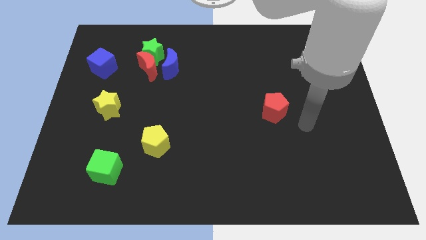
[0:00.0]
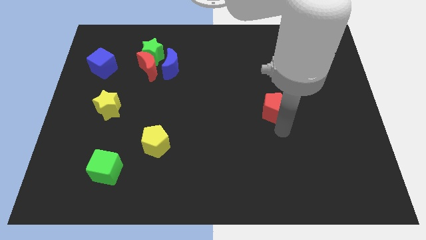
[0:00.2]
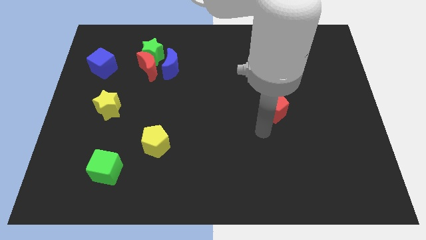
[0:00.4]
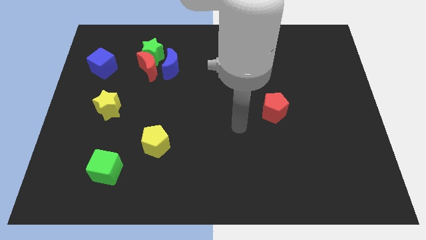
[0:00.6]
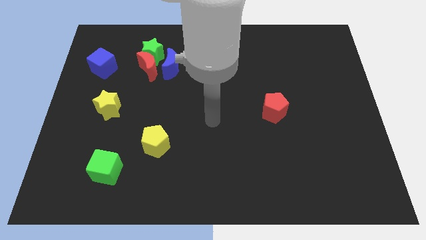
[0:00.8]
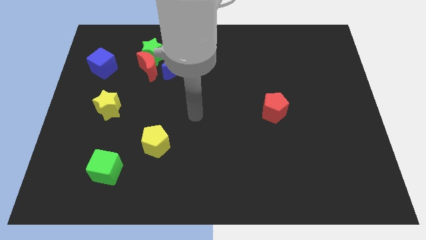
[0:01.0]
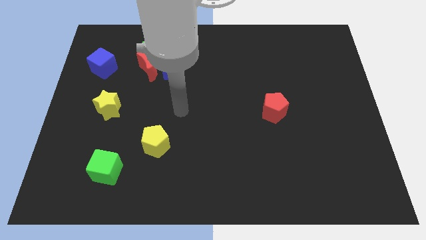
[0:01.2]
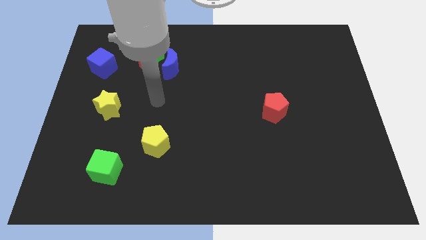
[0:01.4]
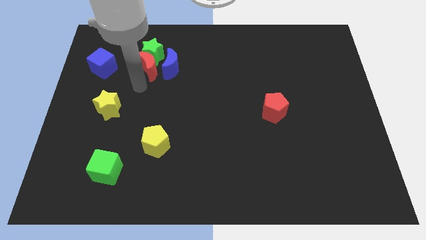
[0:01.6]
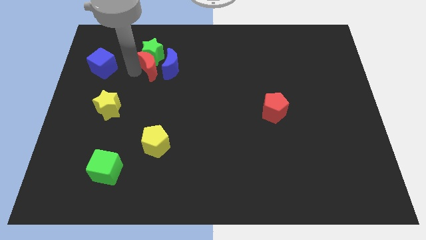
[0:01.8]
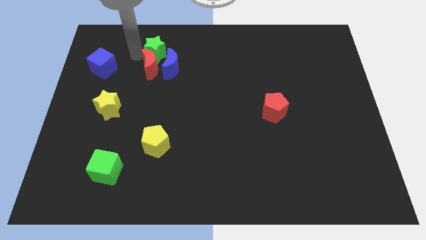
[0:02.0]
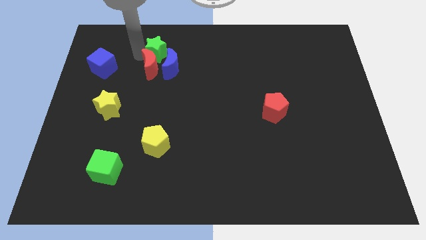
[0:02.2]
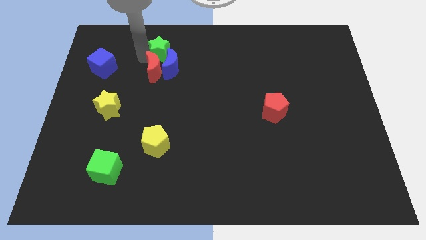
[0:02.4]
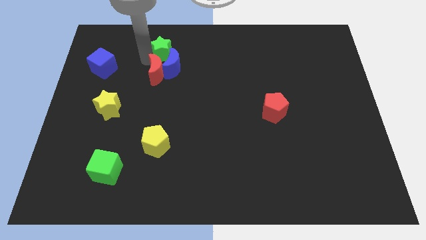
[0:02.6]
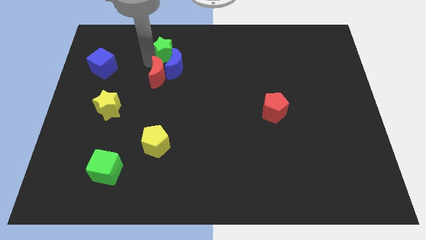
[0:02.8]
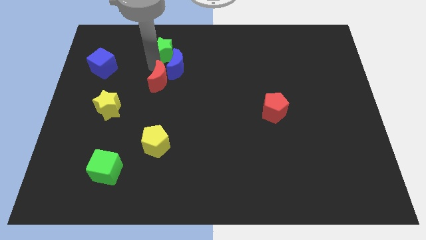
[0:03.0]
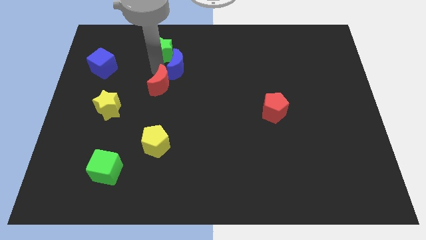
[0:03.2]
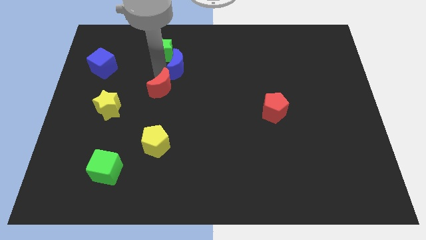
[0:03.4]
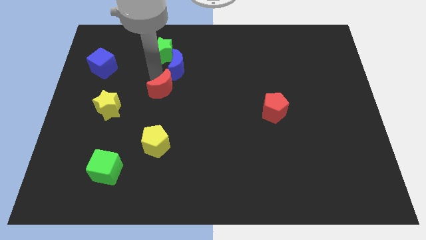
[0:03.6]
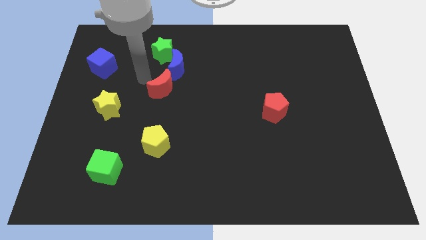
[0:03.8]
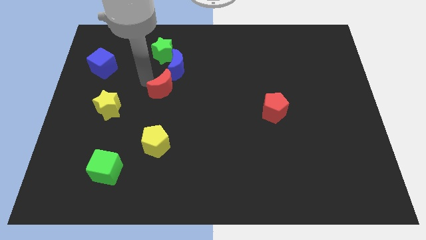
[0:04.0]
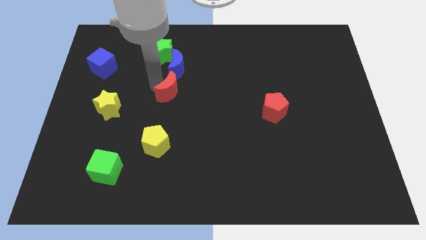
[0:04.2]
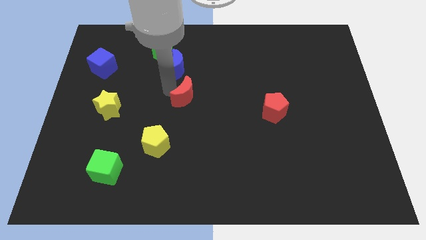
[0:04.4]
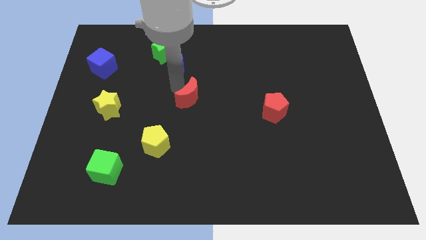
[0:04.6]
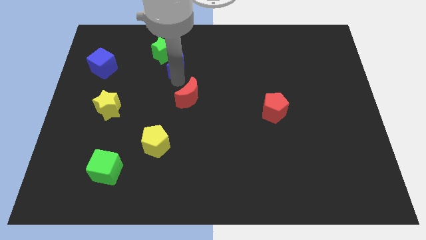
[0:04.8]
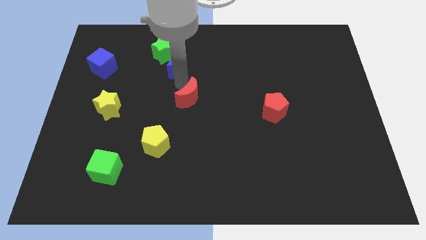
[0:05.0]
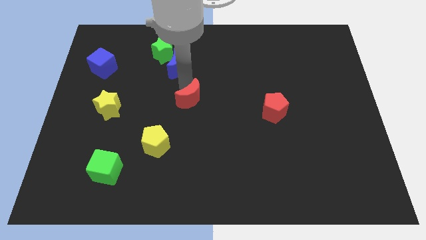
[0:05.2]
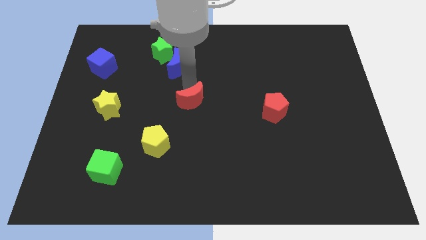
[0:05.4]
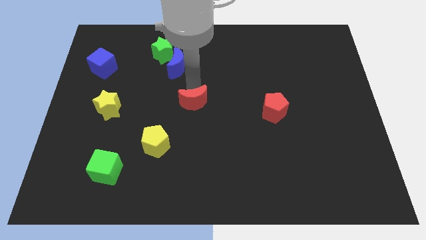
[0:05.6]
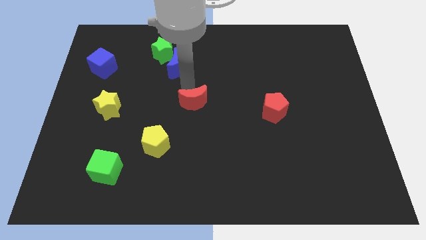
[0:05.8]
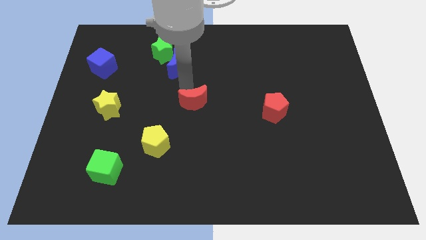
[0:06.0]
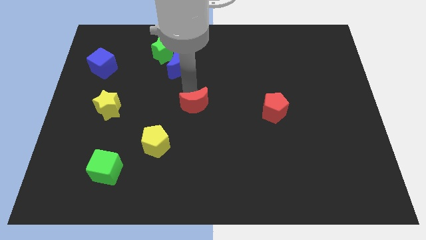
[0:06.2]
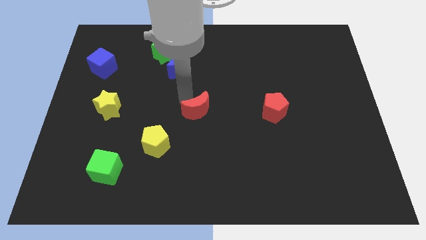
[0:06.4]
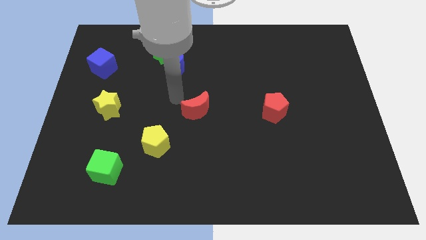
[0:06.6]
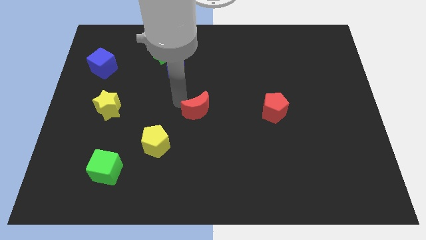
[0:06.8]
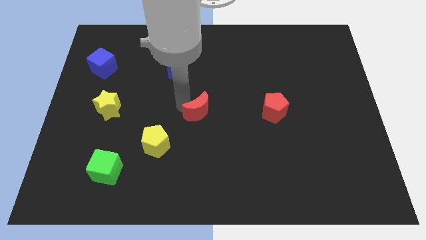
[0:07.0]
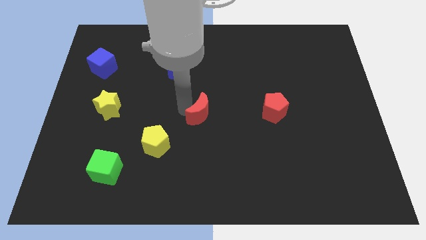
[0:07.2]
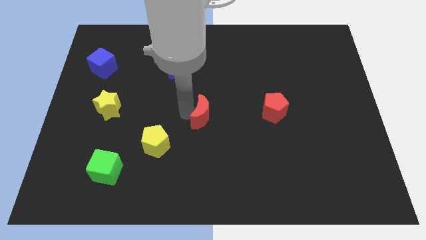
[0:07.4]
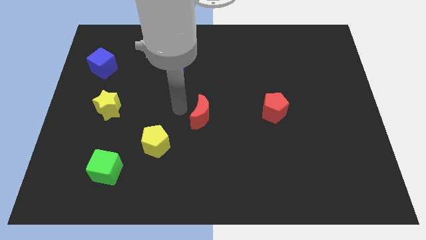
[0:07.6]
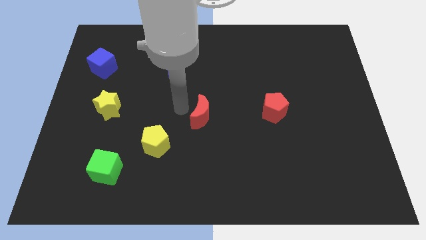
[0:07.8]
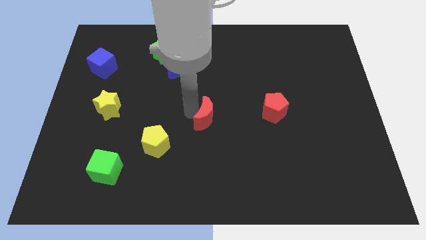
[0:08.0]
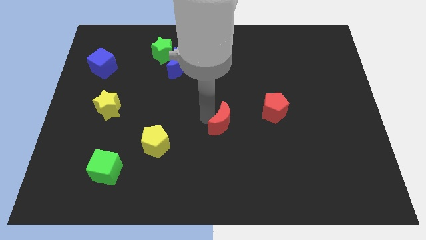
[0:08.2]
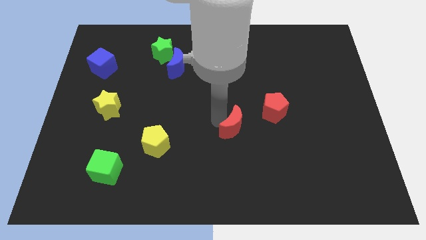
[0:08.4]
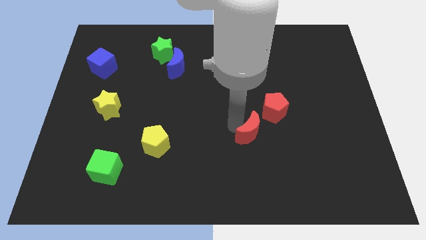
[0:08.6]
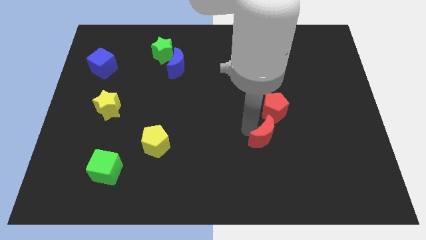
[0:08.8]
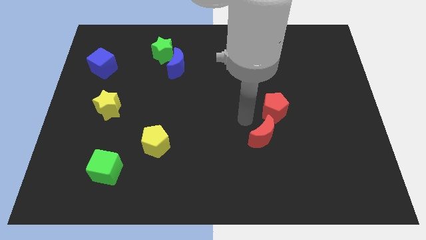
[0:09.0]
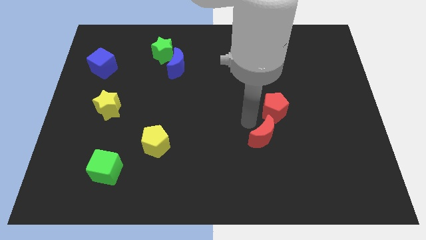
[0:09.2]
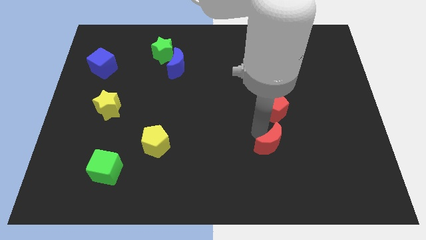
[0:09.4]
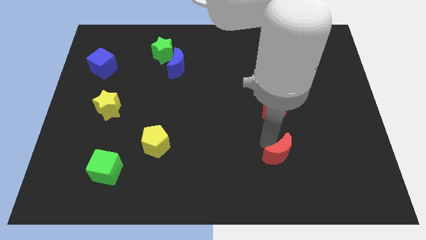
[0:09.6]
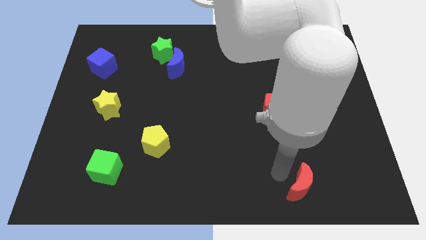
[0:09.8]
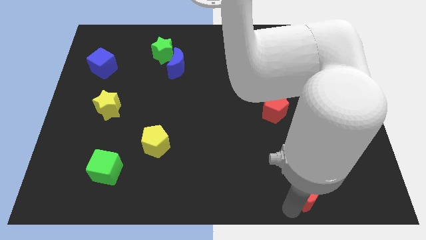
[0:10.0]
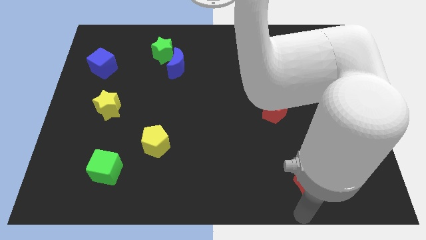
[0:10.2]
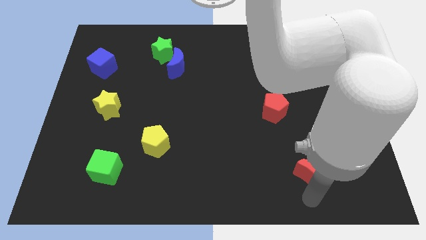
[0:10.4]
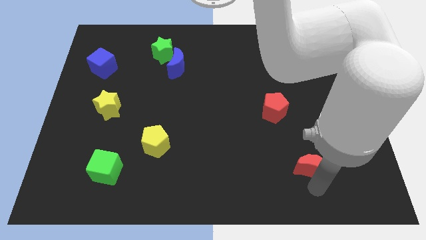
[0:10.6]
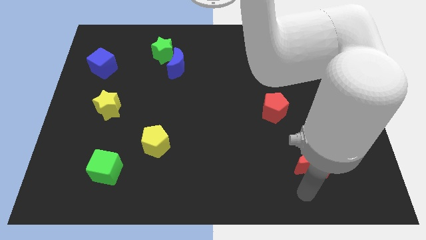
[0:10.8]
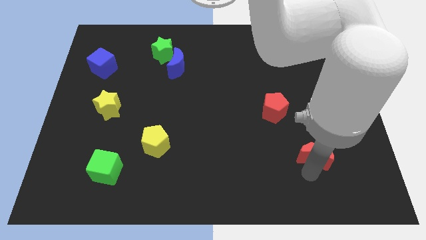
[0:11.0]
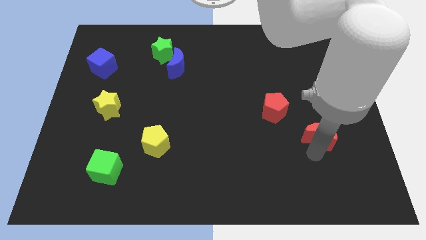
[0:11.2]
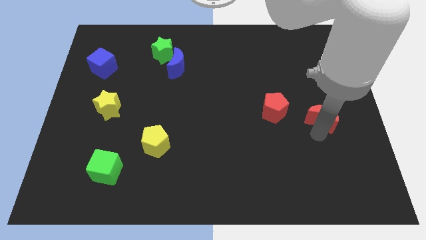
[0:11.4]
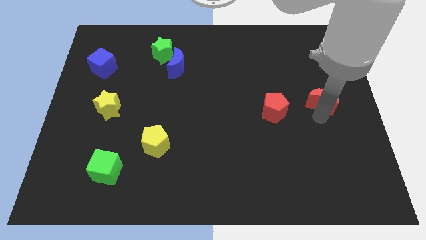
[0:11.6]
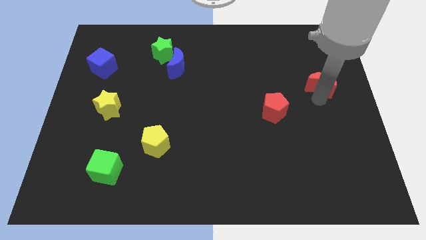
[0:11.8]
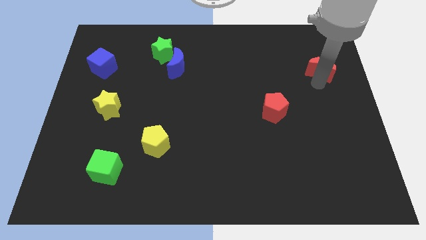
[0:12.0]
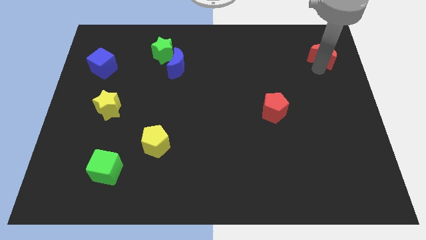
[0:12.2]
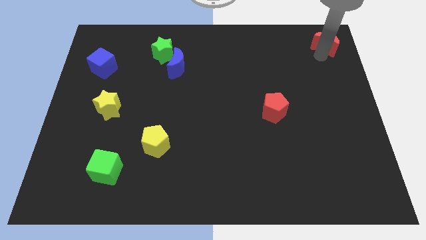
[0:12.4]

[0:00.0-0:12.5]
slide the red moon to the top right of the board

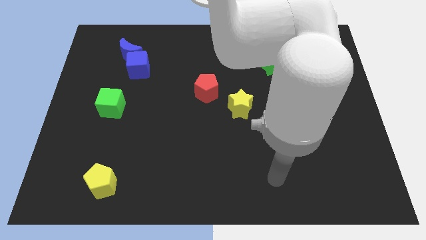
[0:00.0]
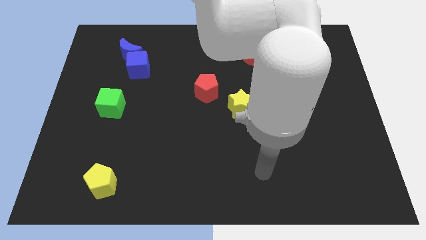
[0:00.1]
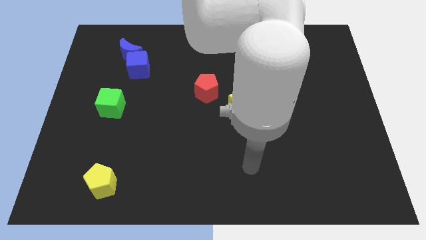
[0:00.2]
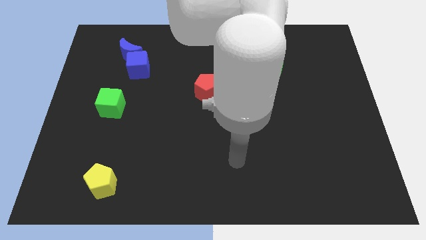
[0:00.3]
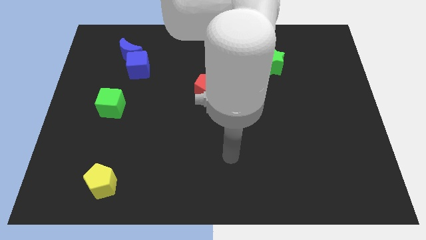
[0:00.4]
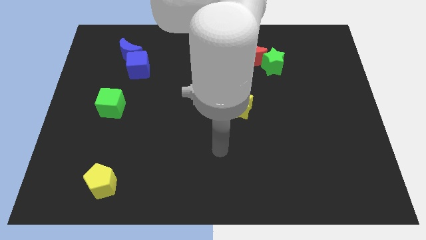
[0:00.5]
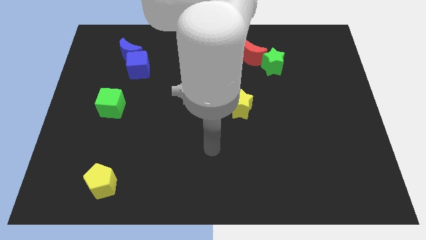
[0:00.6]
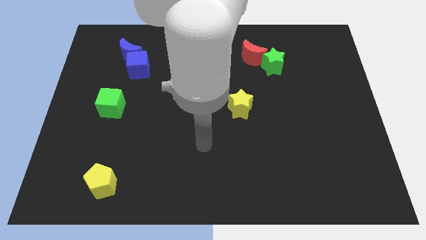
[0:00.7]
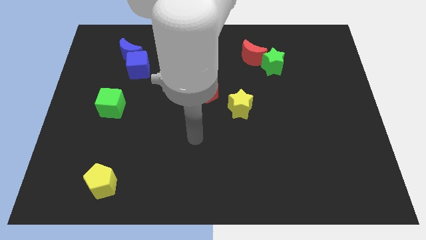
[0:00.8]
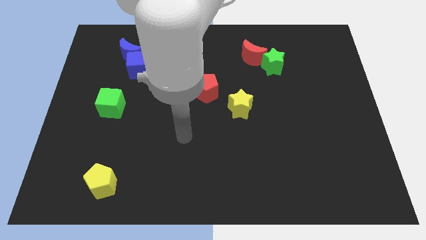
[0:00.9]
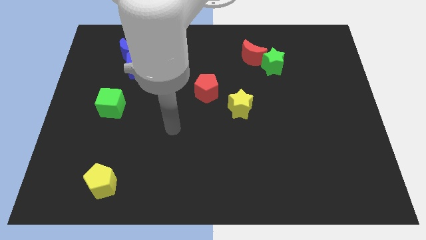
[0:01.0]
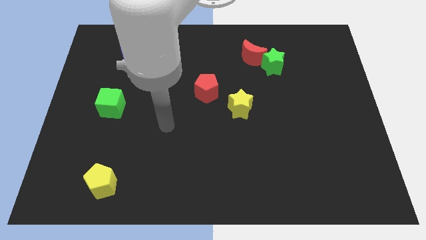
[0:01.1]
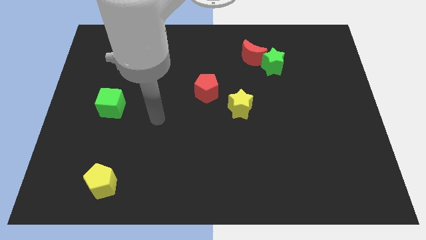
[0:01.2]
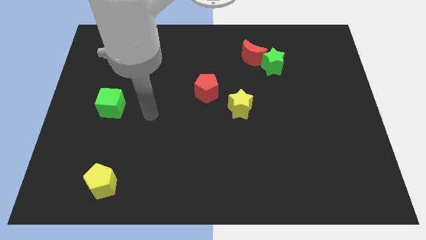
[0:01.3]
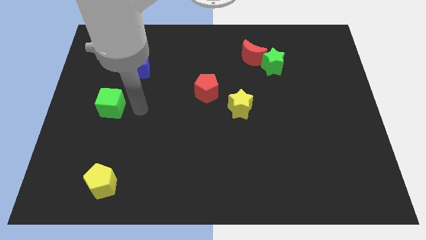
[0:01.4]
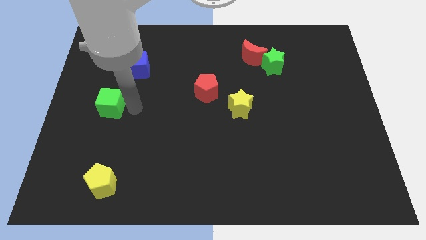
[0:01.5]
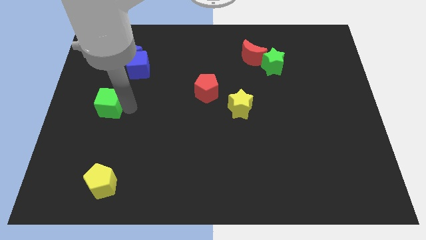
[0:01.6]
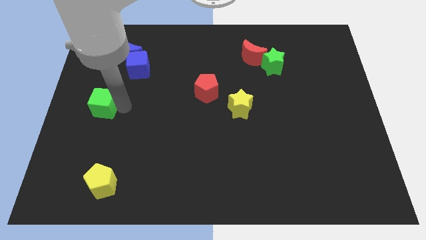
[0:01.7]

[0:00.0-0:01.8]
slide the green cube to the center left
